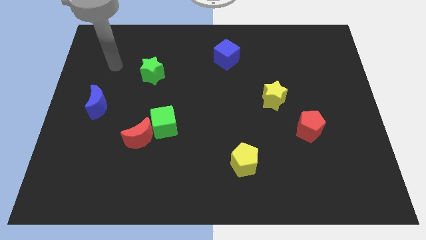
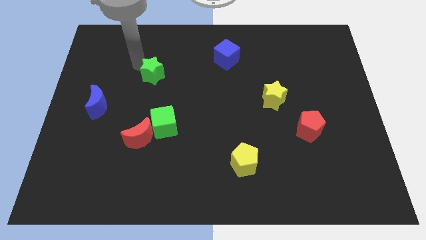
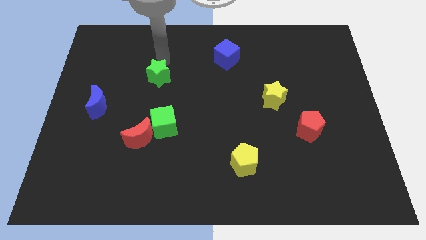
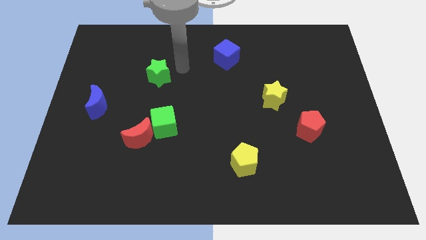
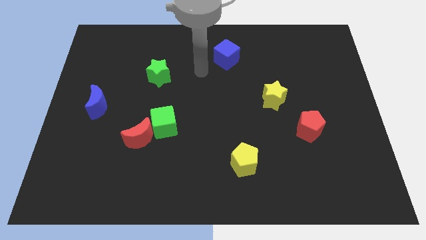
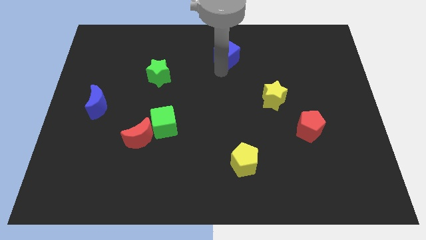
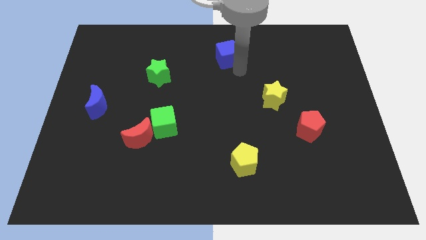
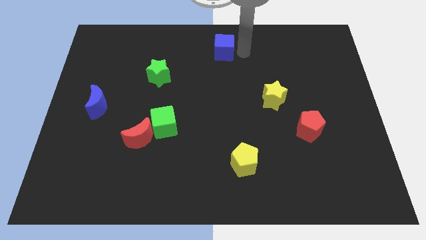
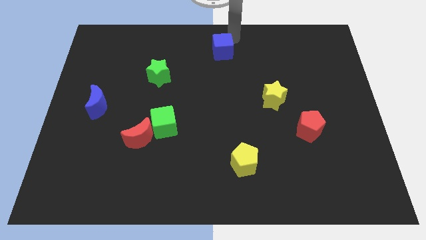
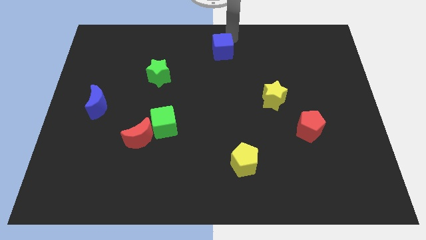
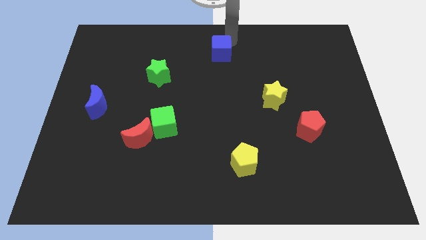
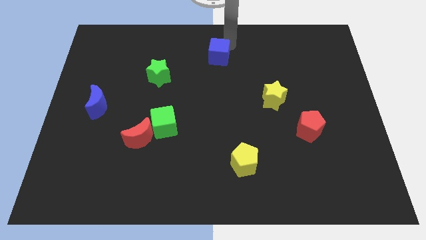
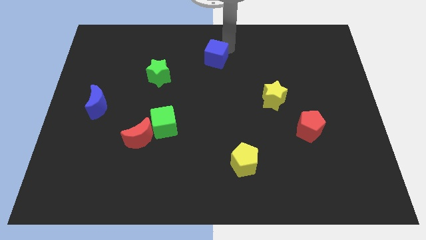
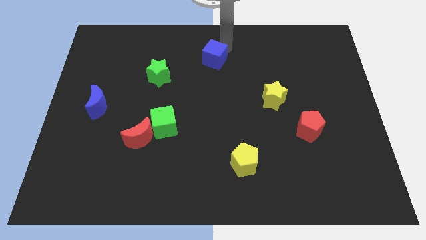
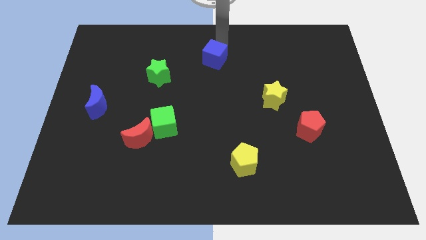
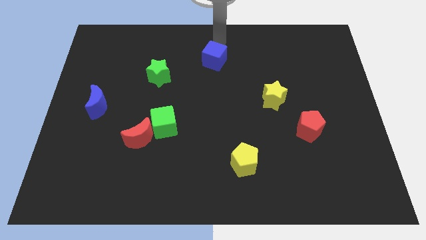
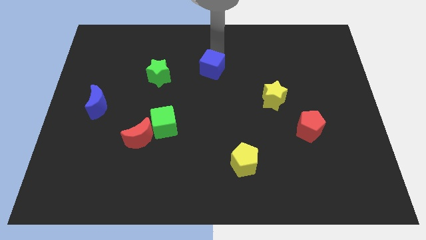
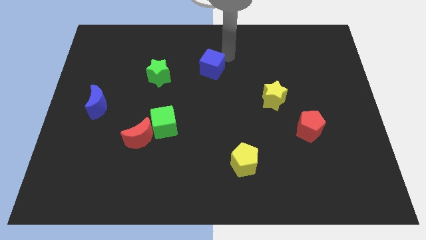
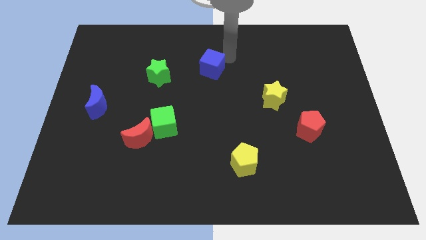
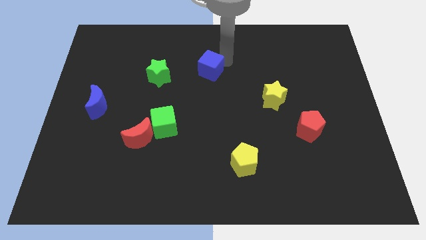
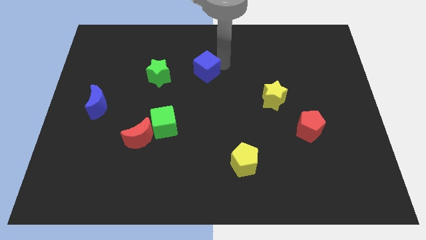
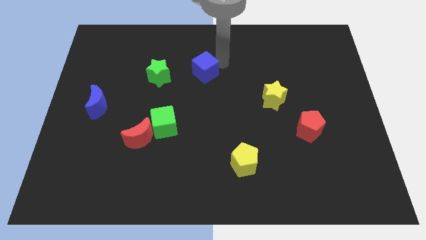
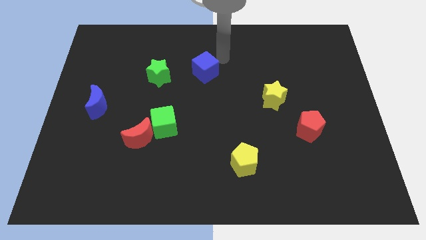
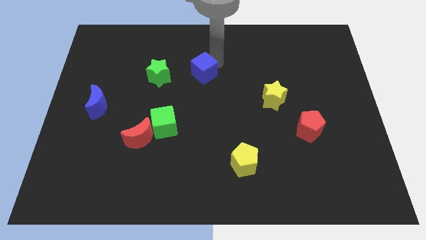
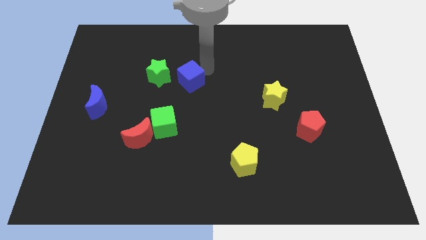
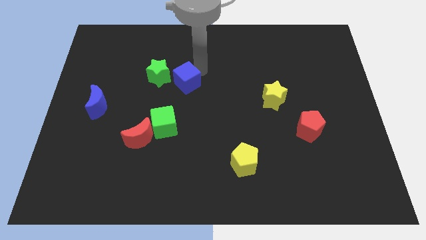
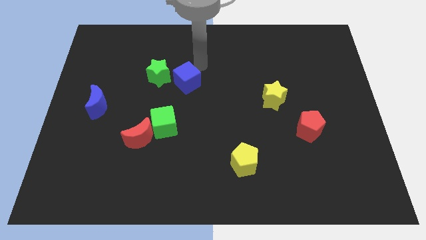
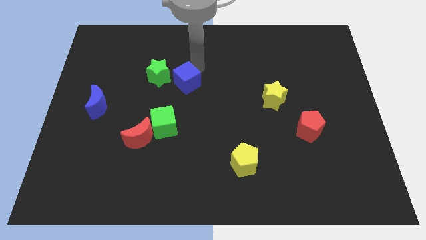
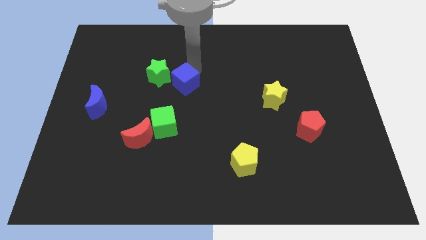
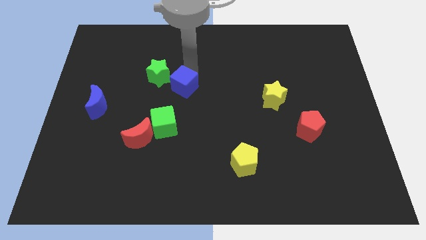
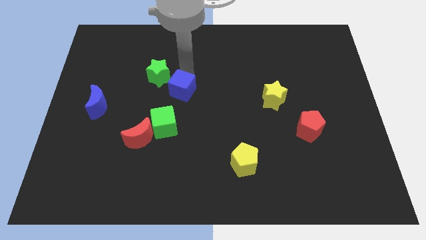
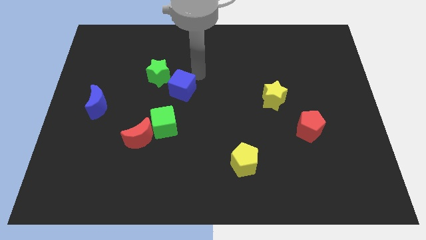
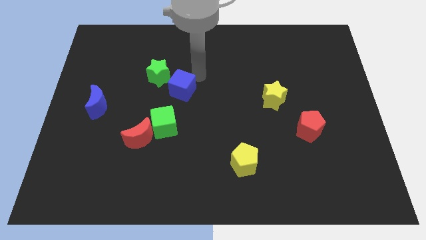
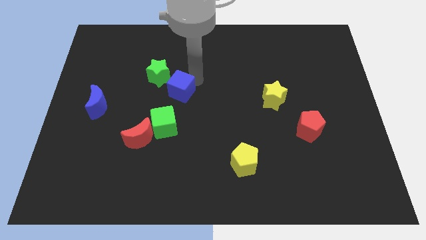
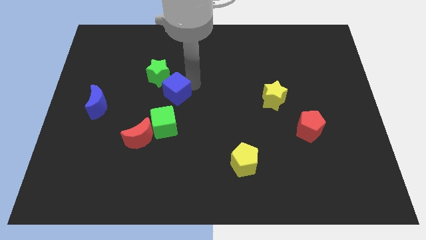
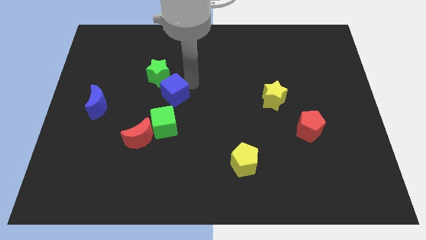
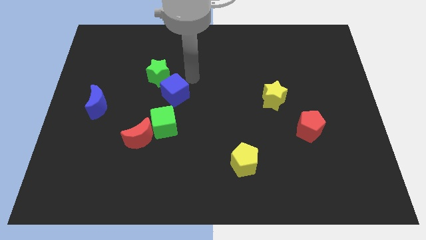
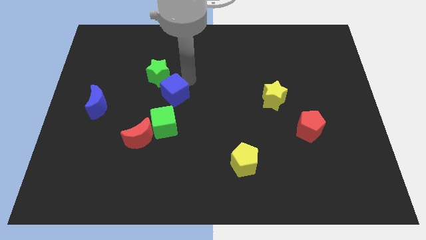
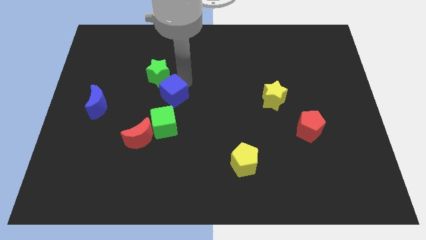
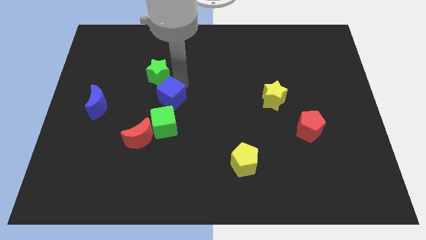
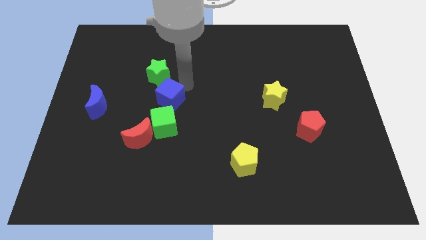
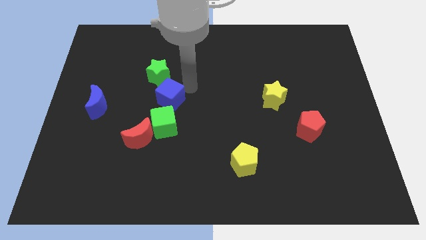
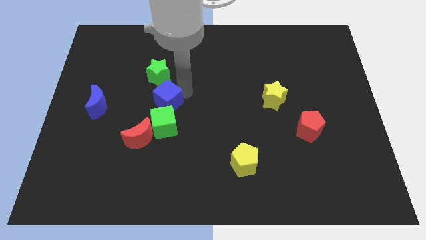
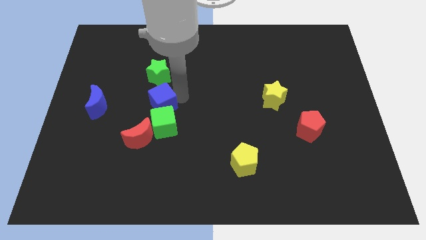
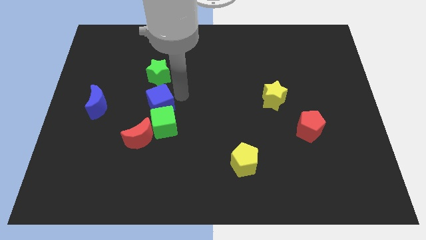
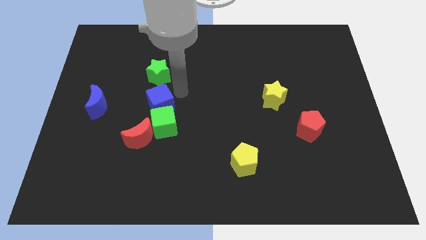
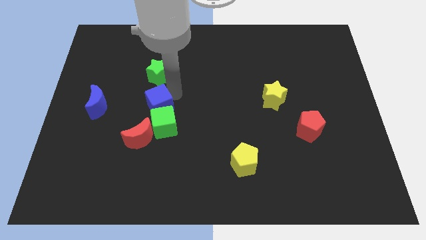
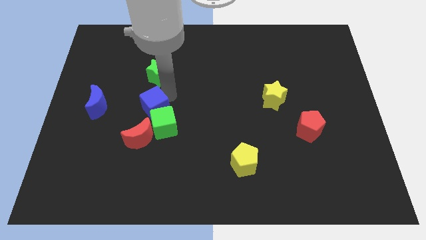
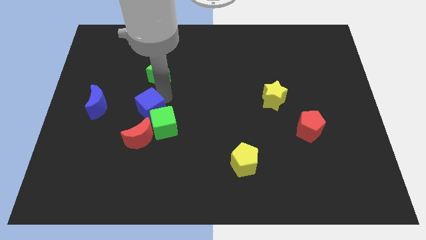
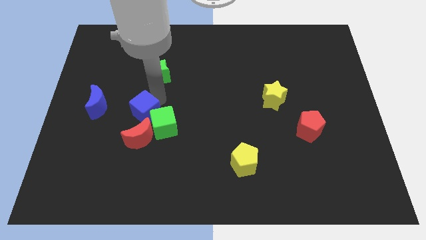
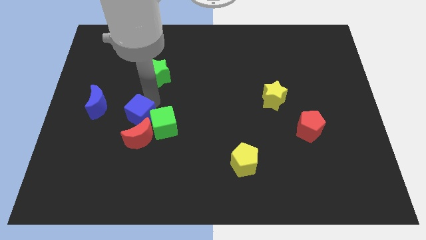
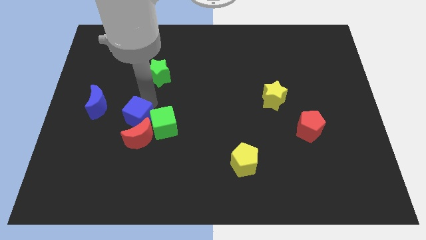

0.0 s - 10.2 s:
push the blue cube close to the red moon

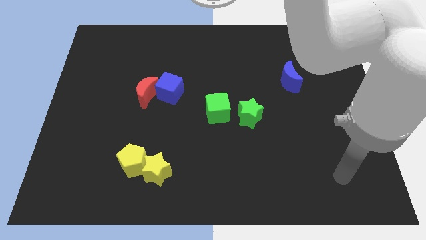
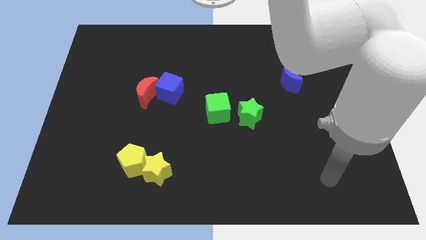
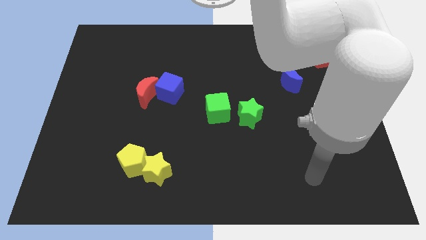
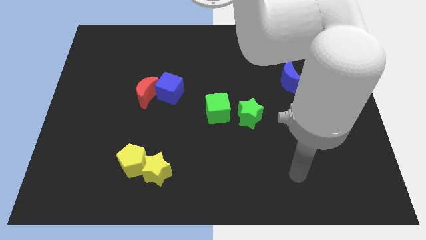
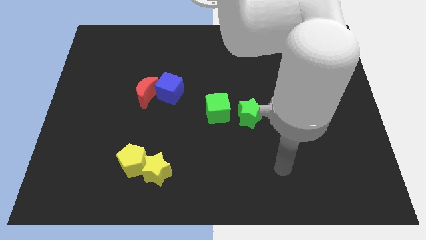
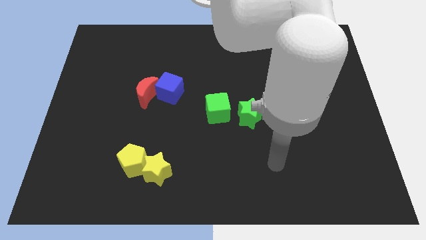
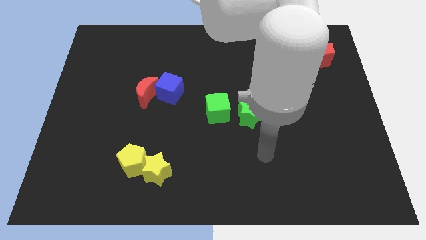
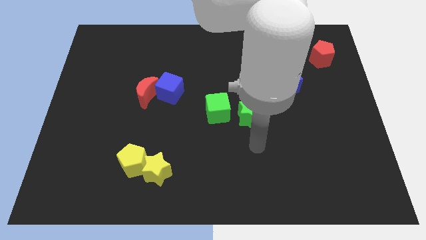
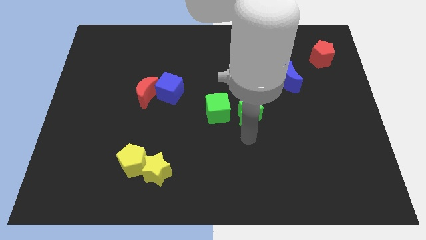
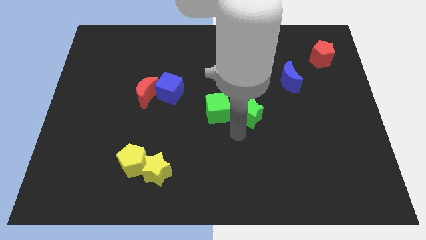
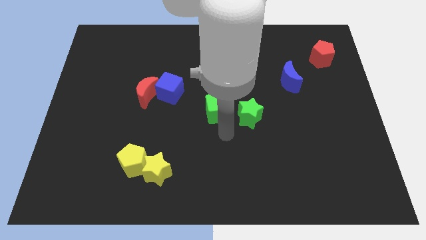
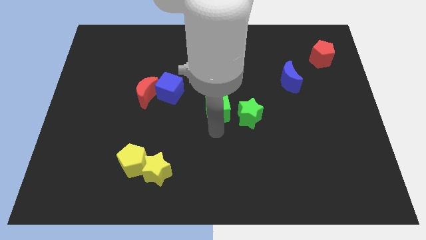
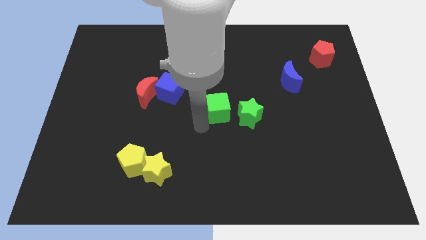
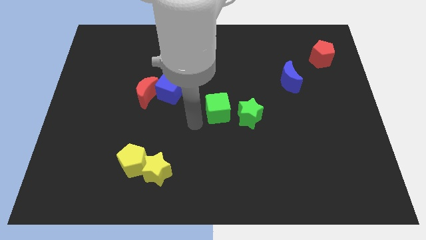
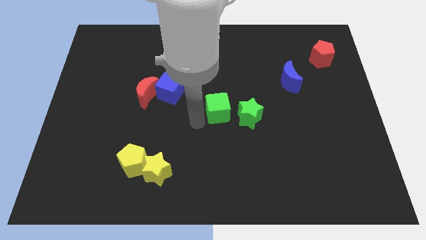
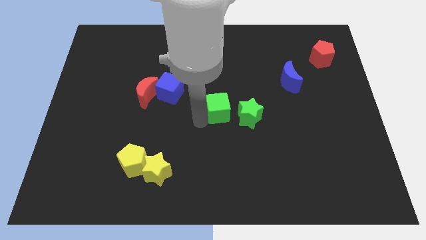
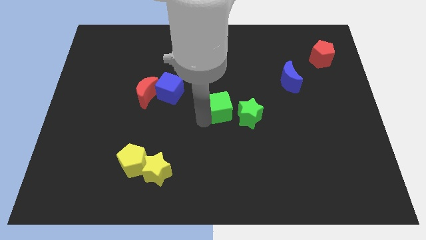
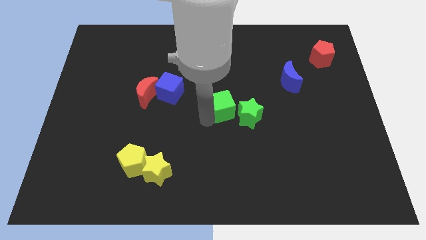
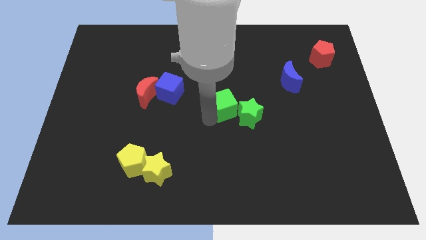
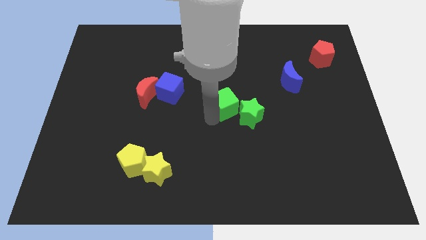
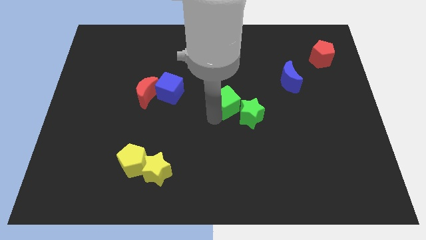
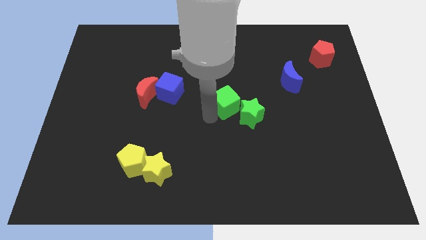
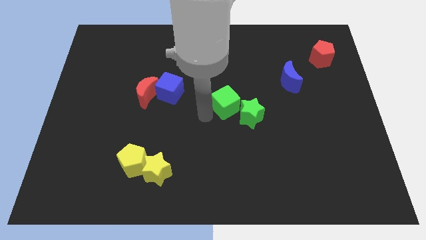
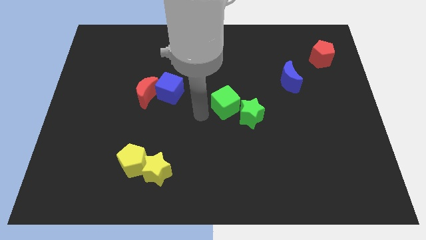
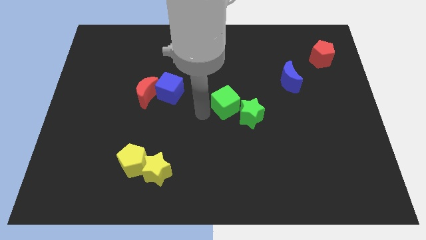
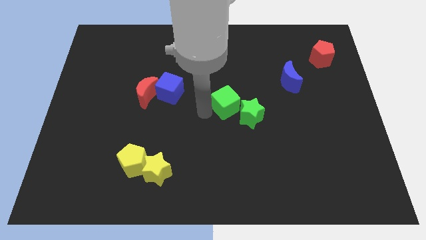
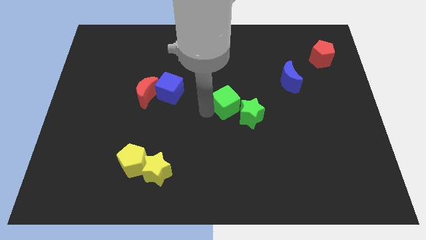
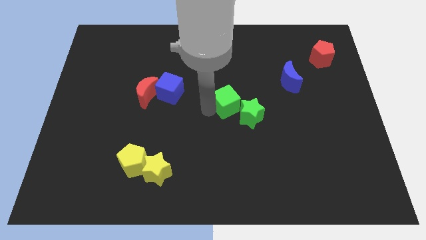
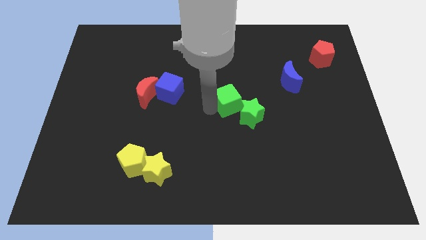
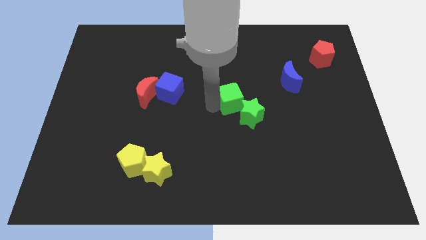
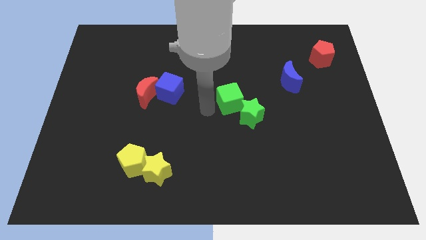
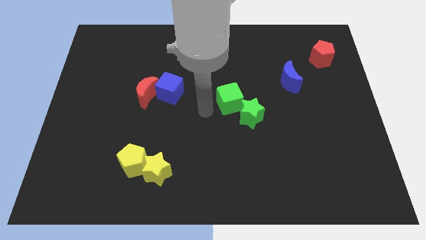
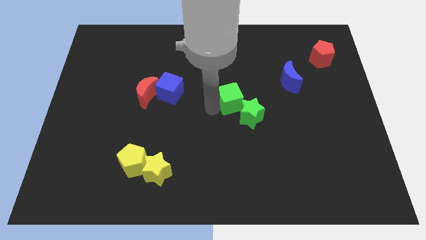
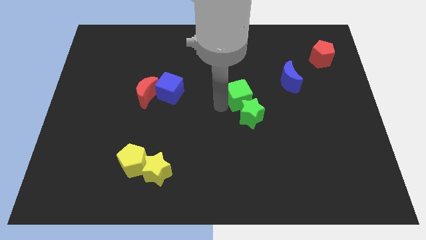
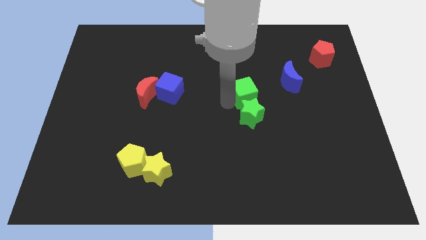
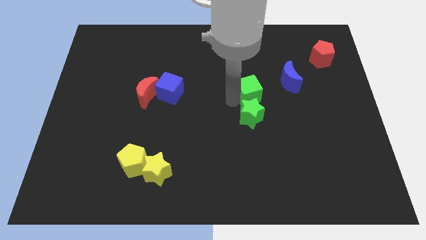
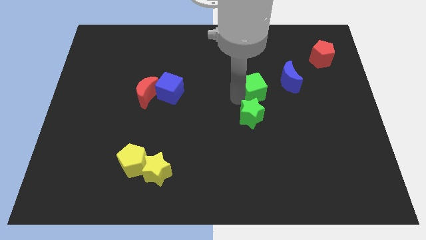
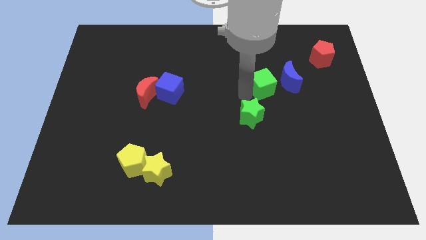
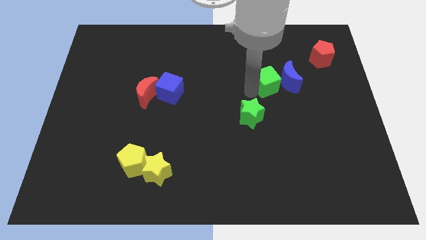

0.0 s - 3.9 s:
slide the green cube towards the blue moon
